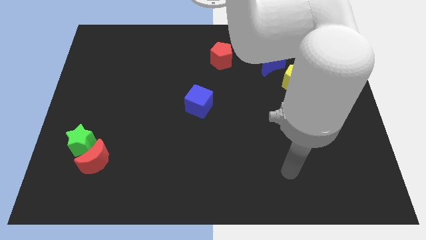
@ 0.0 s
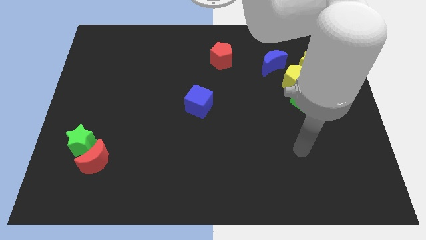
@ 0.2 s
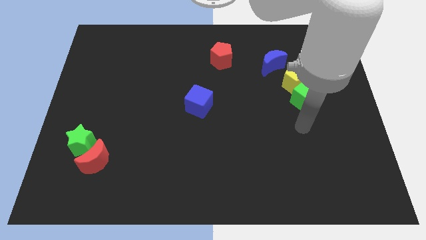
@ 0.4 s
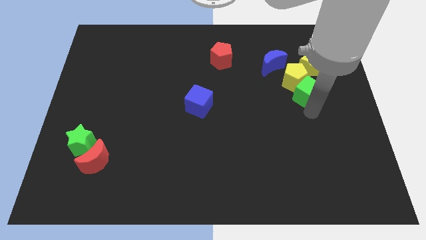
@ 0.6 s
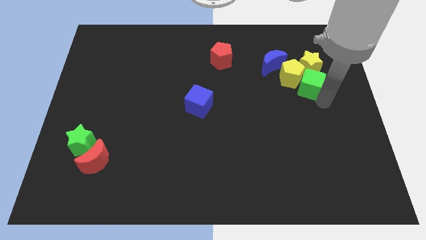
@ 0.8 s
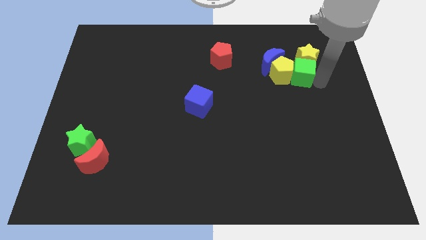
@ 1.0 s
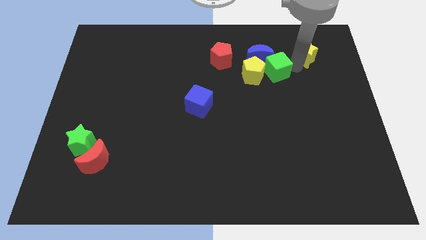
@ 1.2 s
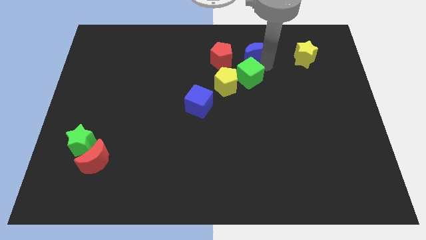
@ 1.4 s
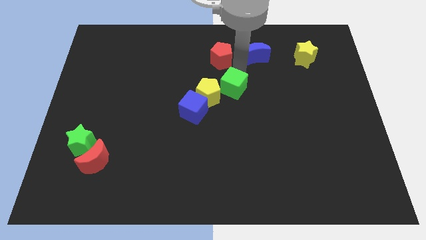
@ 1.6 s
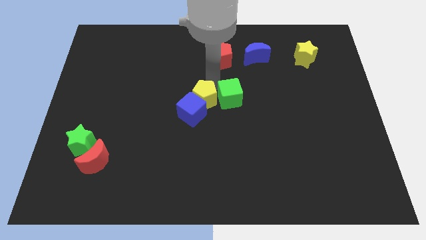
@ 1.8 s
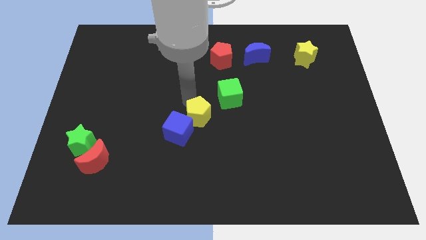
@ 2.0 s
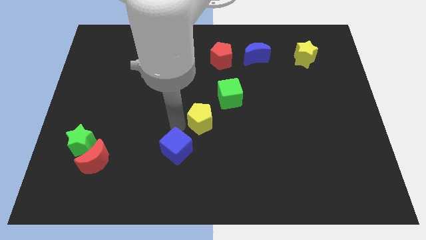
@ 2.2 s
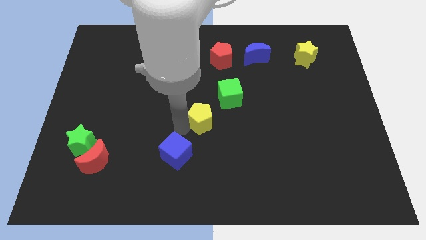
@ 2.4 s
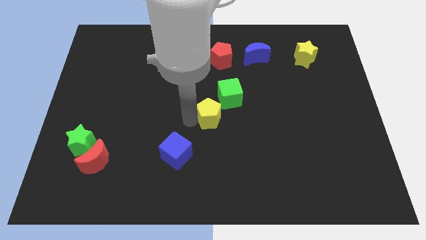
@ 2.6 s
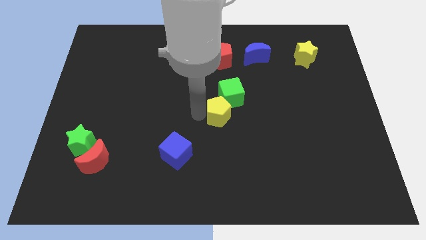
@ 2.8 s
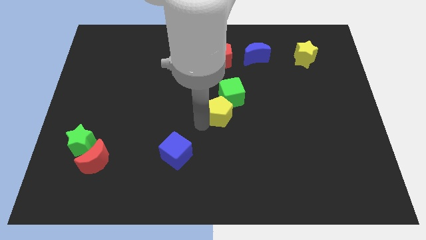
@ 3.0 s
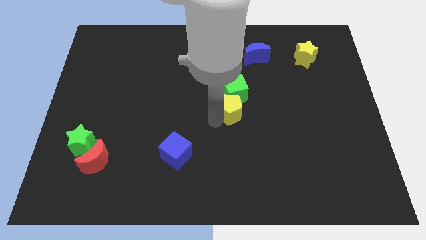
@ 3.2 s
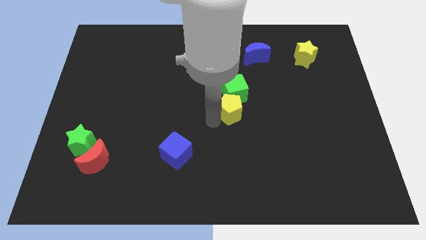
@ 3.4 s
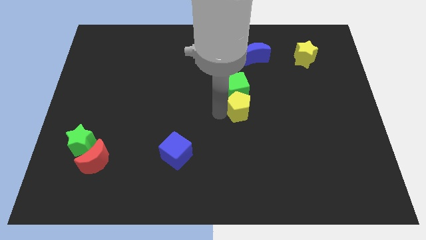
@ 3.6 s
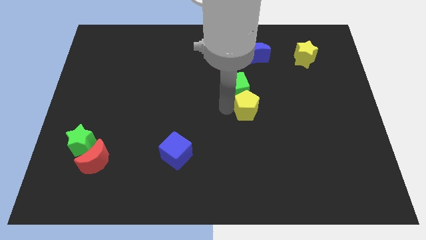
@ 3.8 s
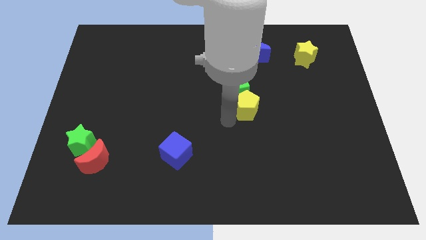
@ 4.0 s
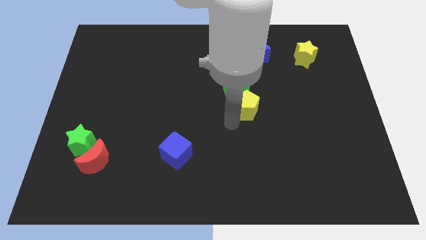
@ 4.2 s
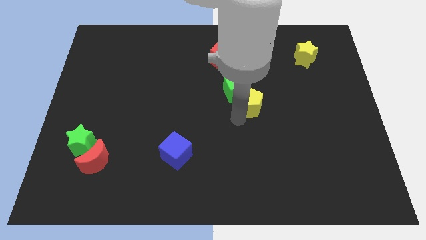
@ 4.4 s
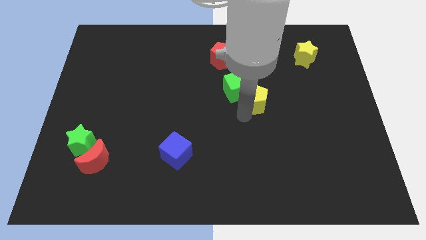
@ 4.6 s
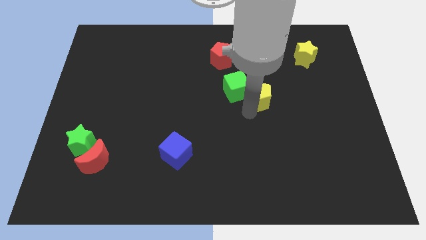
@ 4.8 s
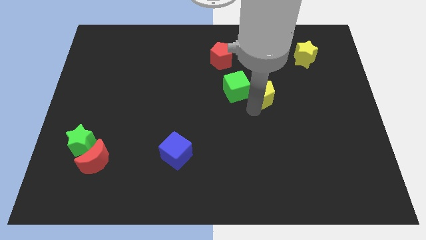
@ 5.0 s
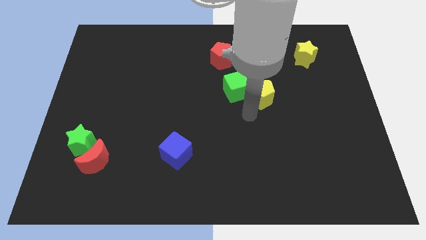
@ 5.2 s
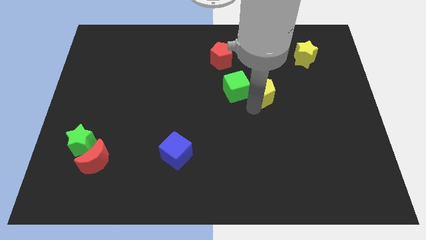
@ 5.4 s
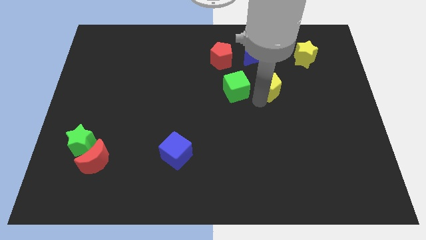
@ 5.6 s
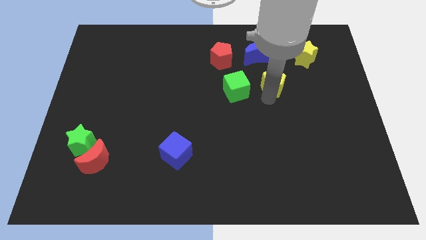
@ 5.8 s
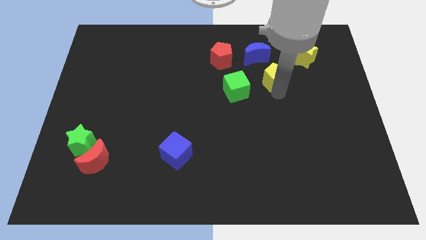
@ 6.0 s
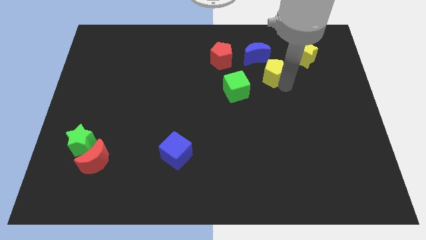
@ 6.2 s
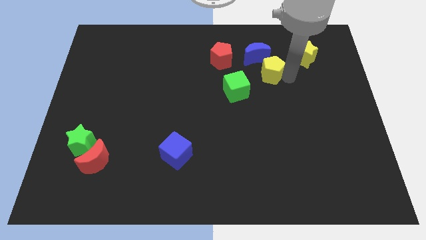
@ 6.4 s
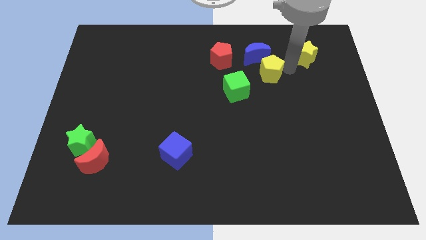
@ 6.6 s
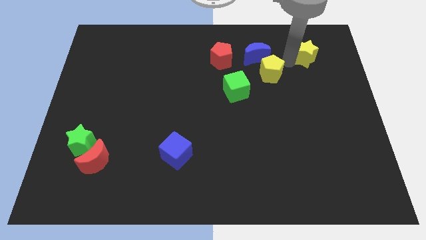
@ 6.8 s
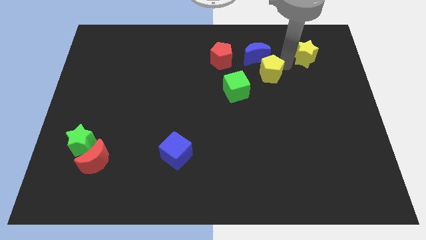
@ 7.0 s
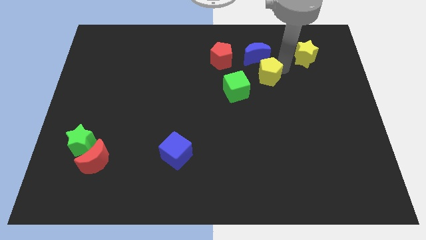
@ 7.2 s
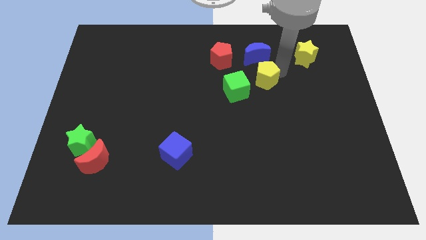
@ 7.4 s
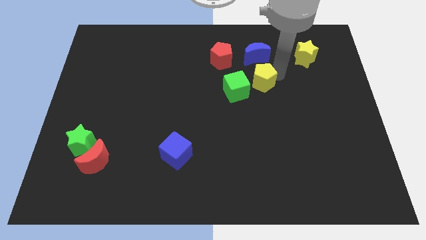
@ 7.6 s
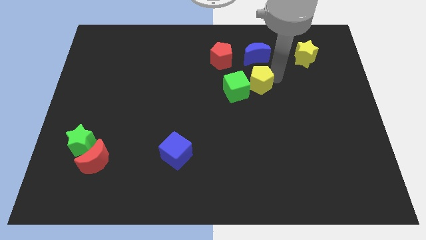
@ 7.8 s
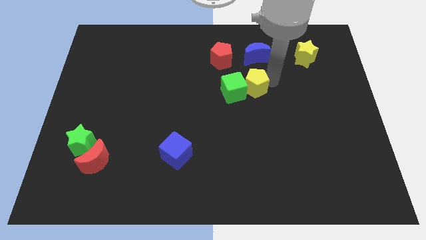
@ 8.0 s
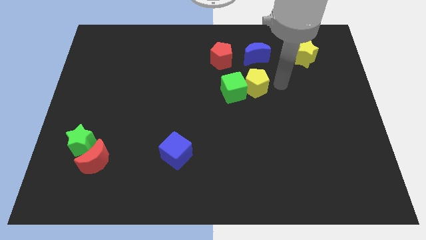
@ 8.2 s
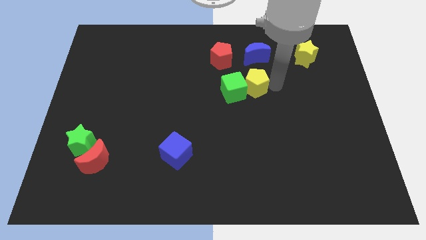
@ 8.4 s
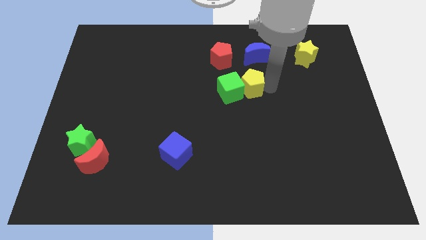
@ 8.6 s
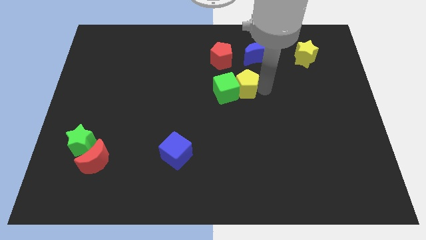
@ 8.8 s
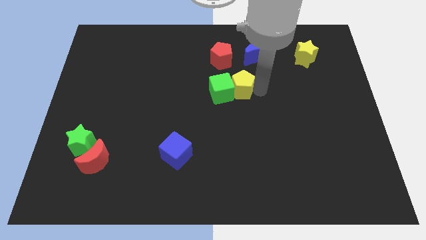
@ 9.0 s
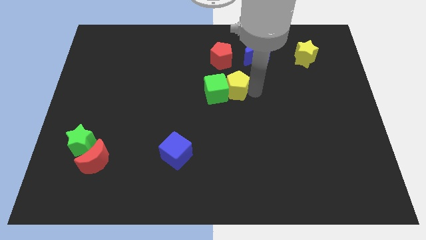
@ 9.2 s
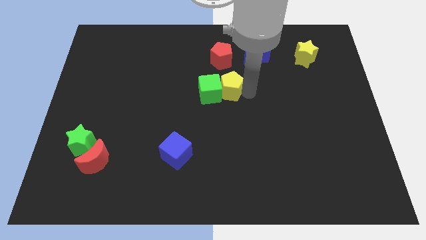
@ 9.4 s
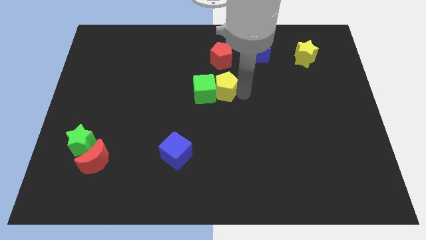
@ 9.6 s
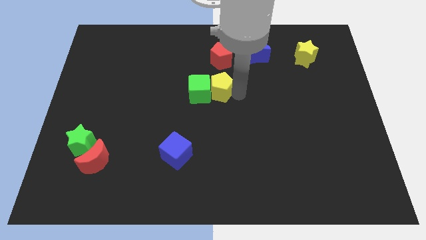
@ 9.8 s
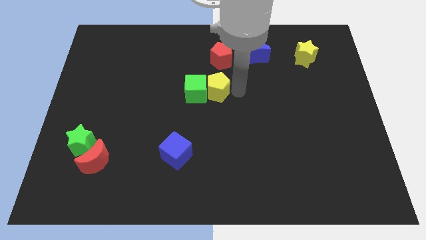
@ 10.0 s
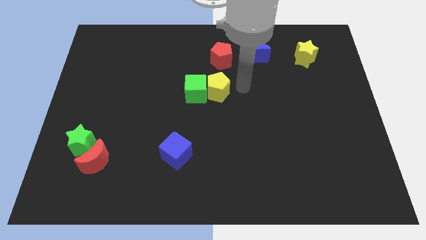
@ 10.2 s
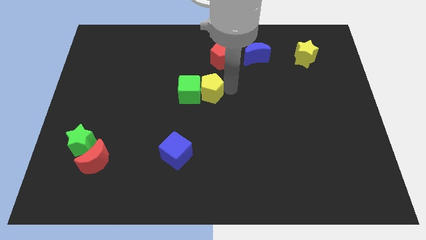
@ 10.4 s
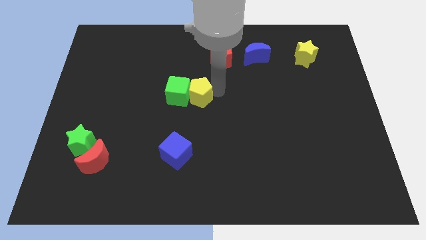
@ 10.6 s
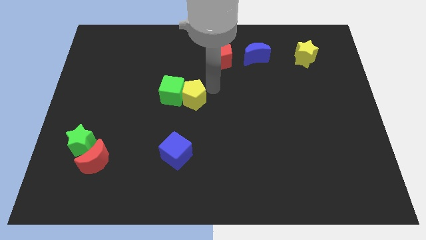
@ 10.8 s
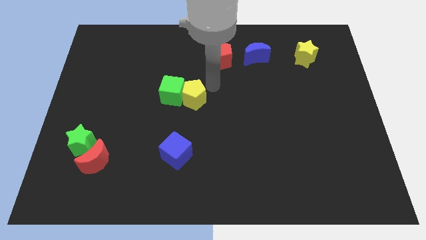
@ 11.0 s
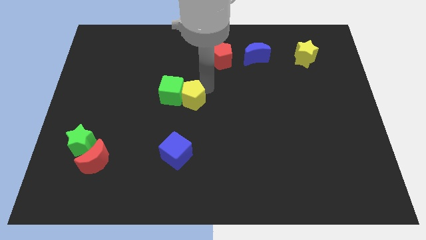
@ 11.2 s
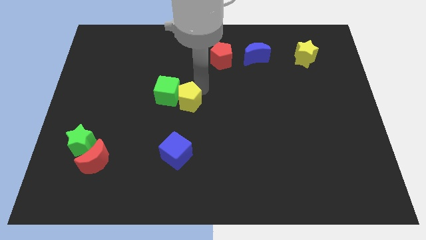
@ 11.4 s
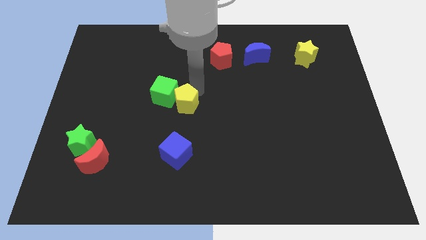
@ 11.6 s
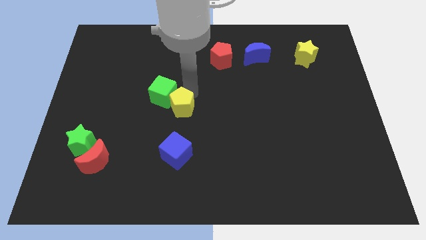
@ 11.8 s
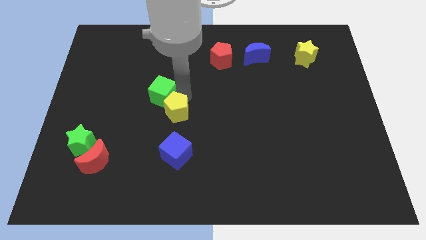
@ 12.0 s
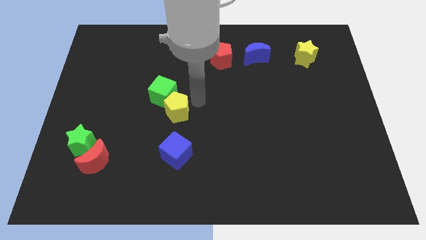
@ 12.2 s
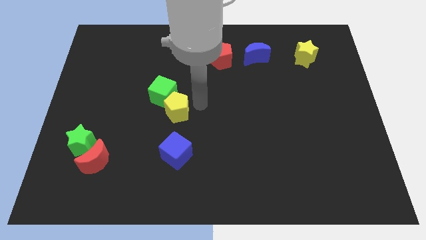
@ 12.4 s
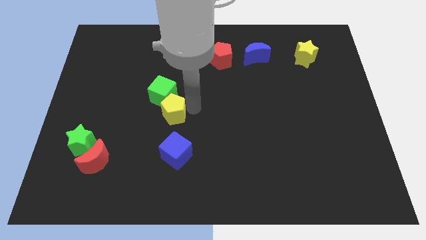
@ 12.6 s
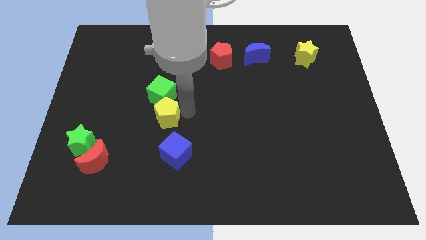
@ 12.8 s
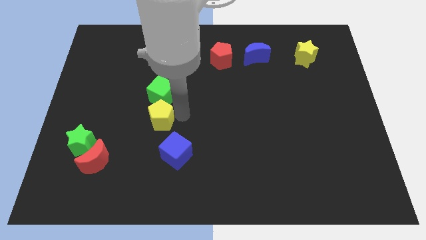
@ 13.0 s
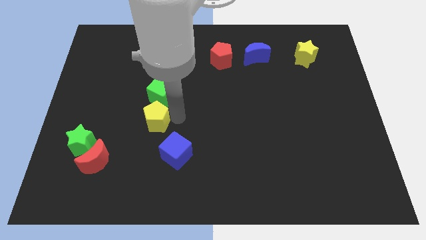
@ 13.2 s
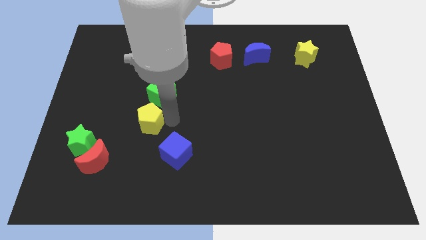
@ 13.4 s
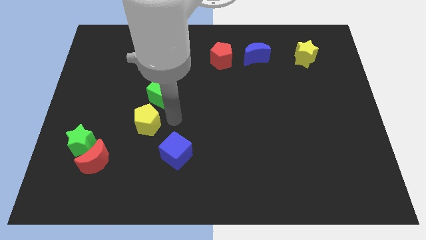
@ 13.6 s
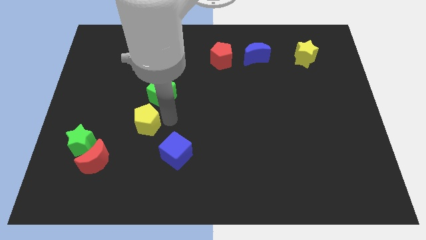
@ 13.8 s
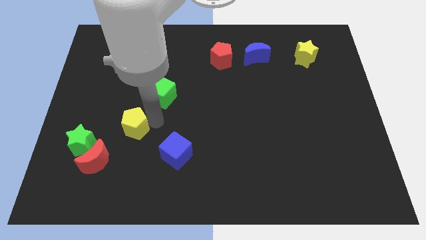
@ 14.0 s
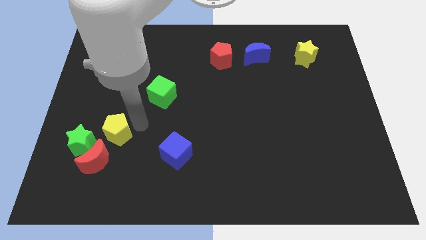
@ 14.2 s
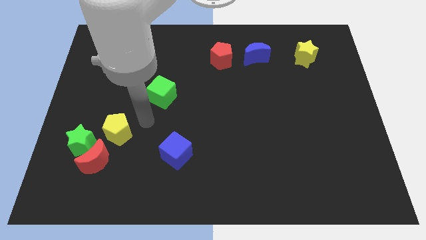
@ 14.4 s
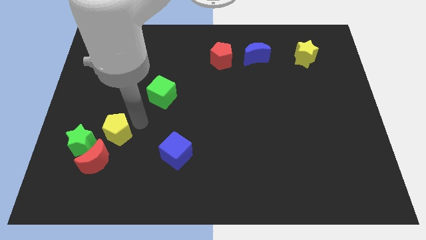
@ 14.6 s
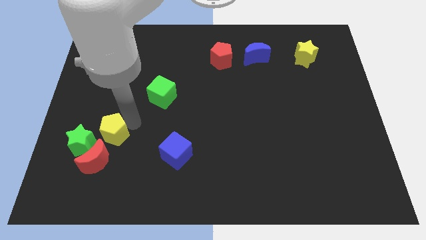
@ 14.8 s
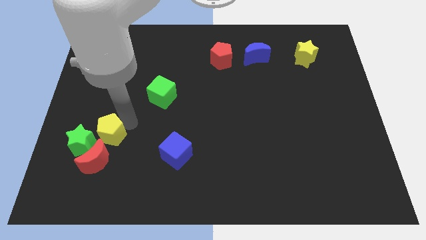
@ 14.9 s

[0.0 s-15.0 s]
slide the yellow pentagon close to the green star

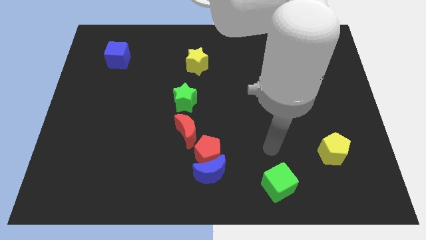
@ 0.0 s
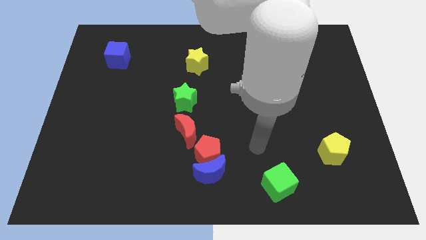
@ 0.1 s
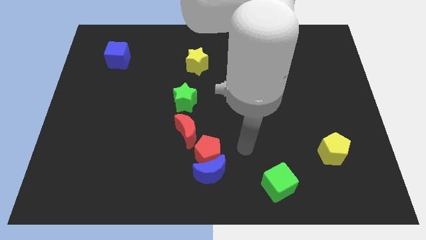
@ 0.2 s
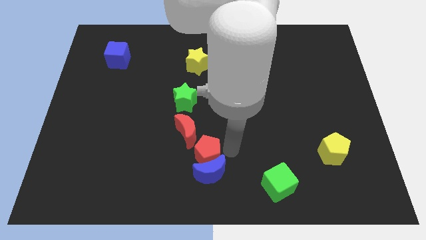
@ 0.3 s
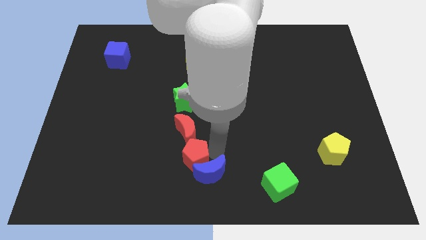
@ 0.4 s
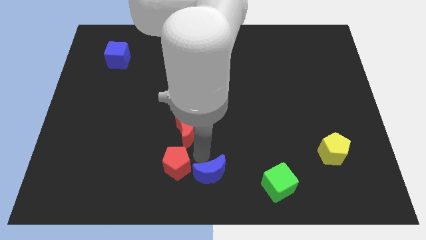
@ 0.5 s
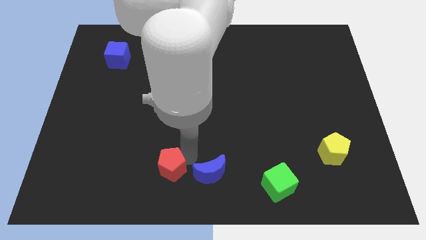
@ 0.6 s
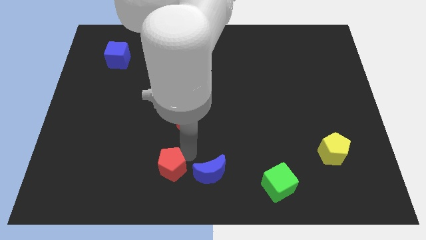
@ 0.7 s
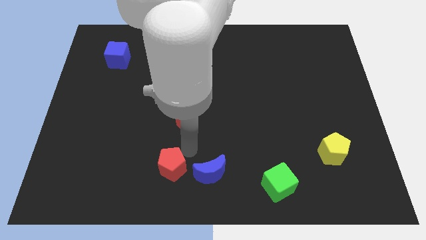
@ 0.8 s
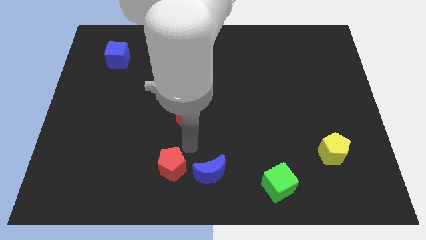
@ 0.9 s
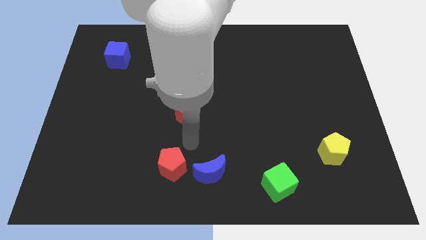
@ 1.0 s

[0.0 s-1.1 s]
put the red moon towards the green star
